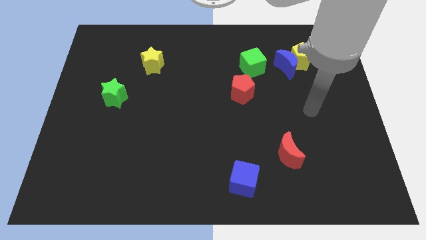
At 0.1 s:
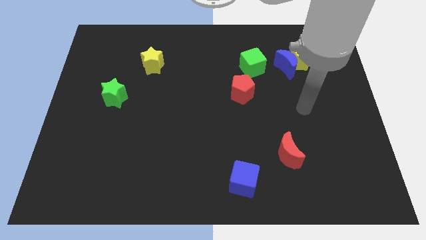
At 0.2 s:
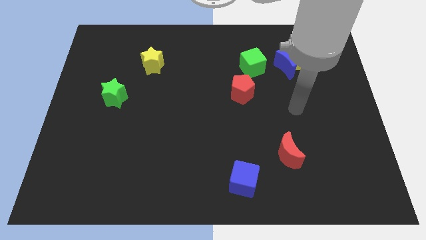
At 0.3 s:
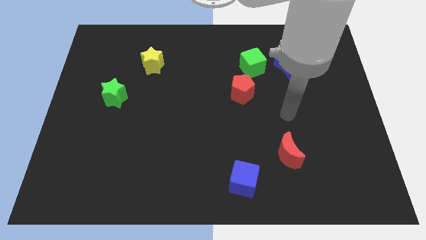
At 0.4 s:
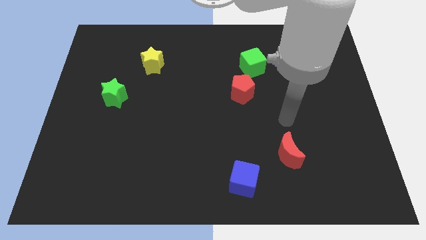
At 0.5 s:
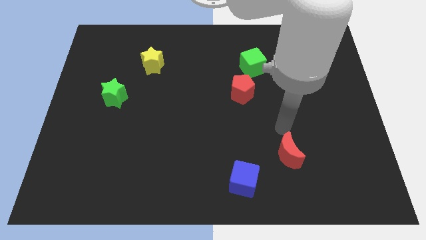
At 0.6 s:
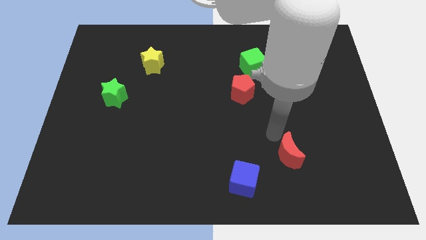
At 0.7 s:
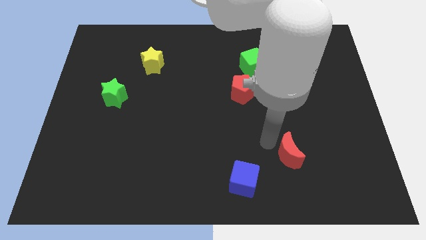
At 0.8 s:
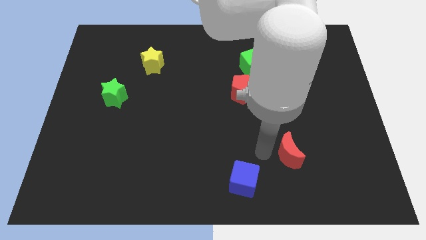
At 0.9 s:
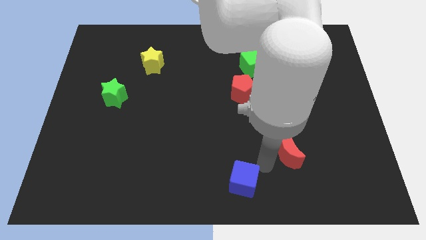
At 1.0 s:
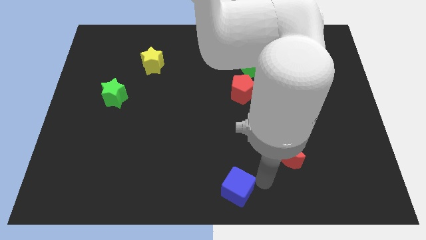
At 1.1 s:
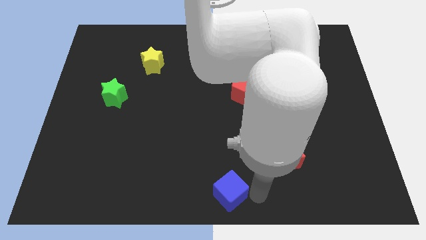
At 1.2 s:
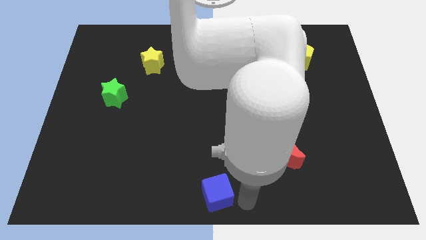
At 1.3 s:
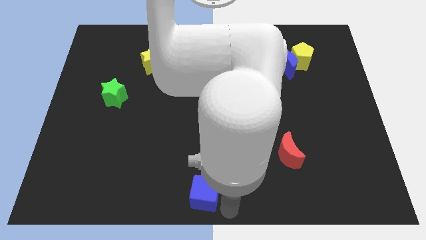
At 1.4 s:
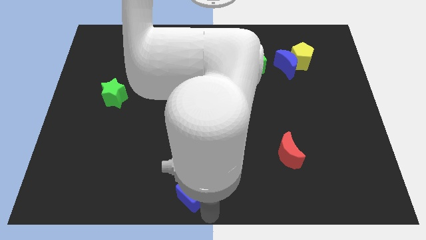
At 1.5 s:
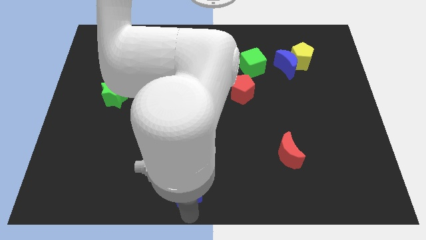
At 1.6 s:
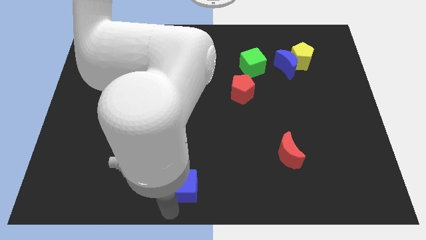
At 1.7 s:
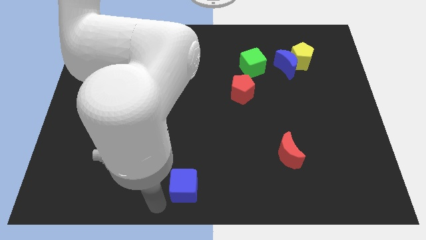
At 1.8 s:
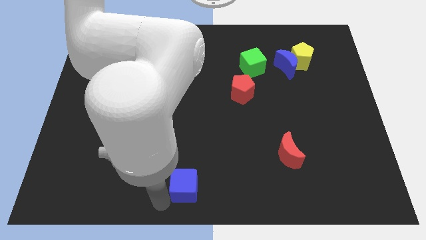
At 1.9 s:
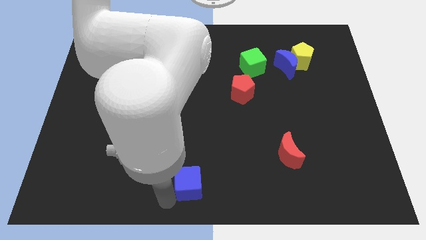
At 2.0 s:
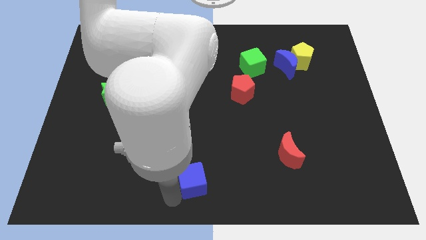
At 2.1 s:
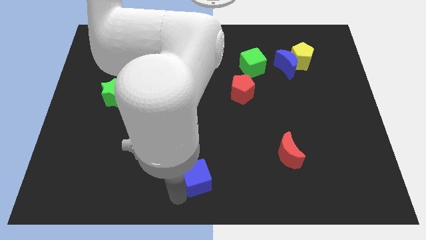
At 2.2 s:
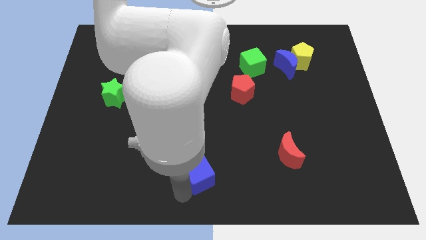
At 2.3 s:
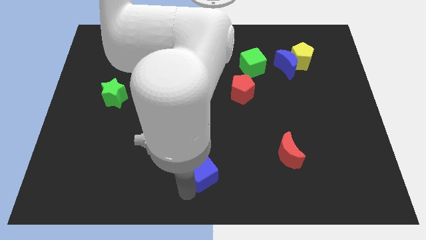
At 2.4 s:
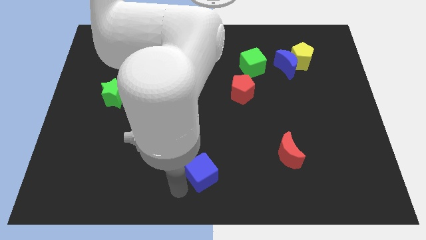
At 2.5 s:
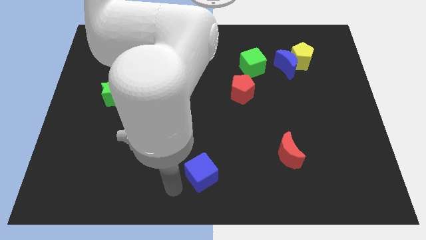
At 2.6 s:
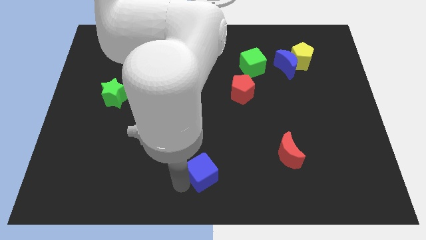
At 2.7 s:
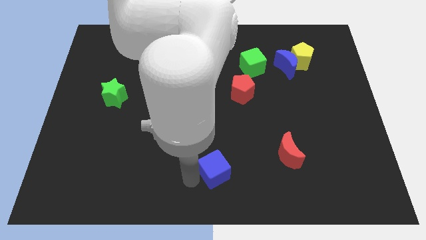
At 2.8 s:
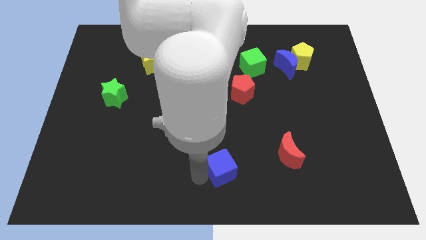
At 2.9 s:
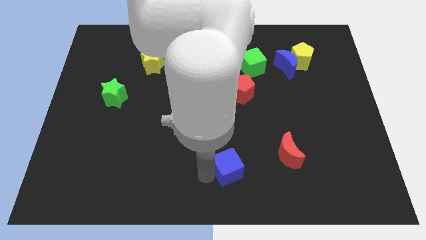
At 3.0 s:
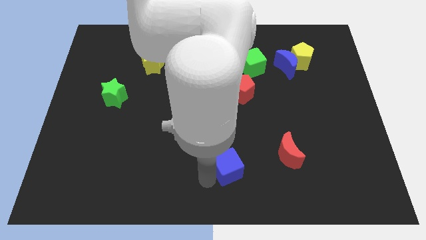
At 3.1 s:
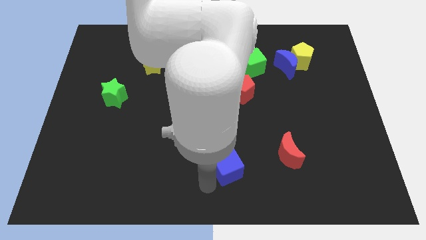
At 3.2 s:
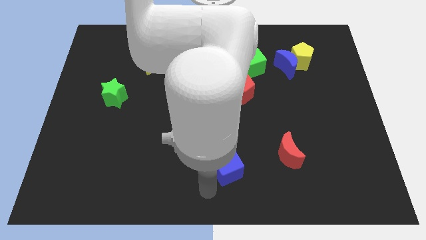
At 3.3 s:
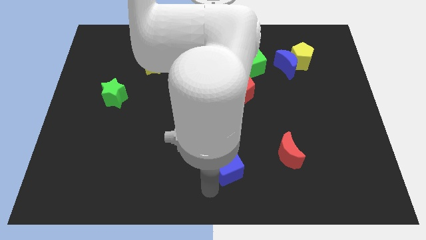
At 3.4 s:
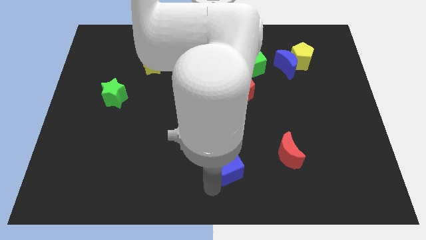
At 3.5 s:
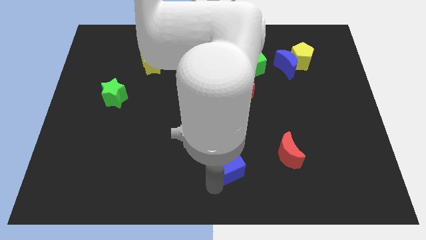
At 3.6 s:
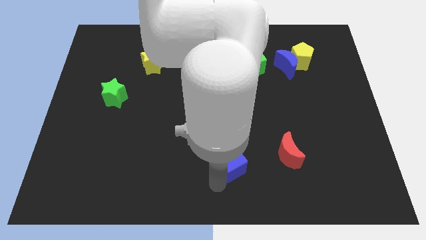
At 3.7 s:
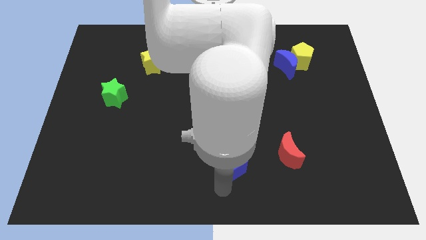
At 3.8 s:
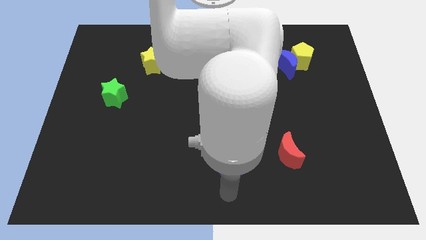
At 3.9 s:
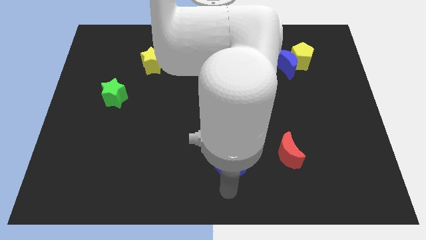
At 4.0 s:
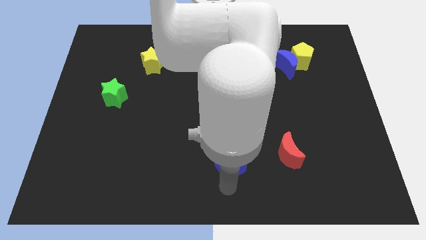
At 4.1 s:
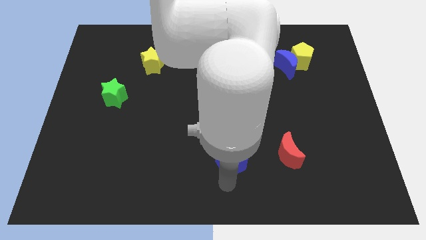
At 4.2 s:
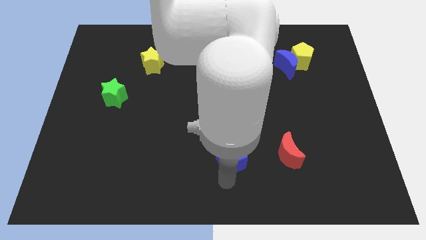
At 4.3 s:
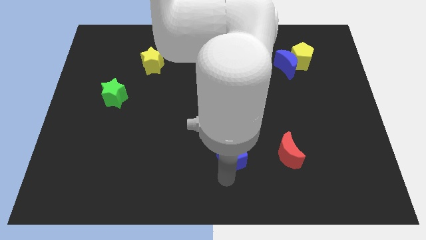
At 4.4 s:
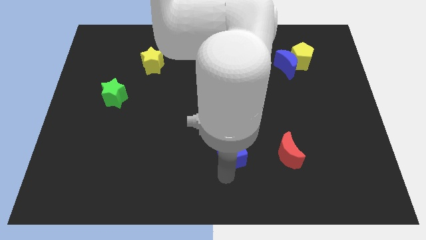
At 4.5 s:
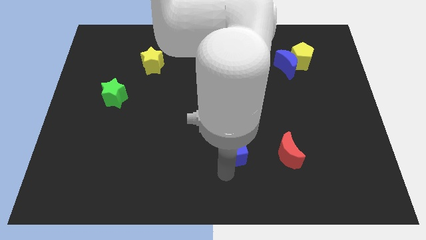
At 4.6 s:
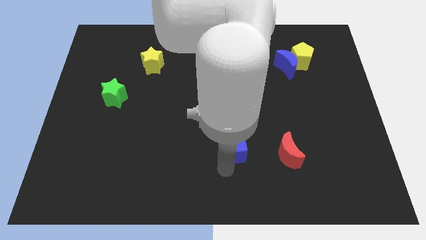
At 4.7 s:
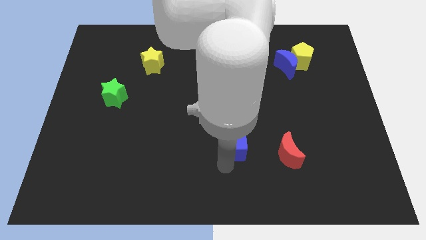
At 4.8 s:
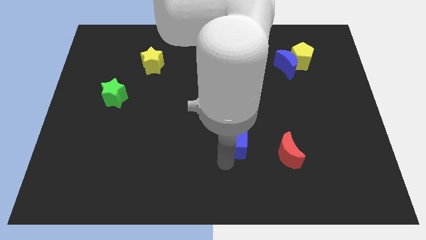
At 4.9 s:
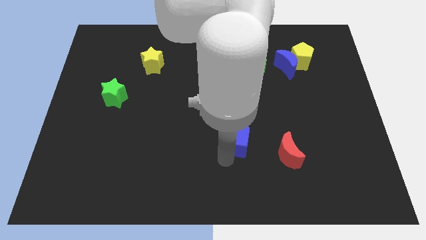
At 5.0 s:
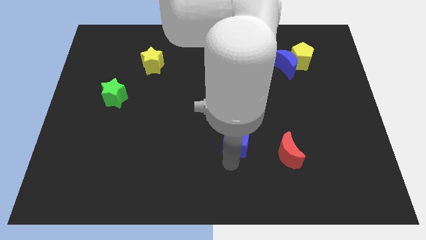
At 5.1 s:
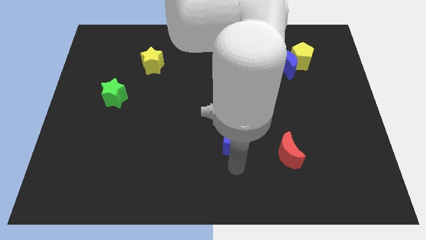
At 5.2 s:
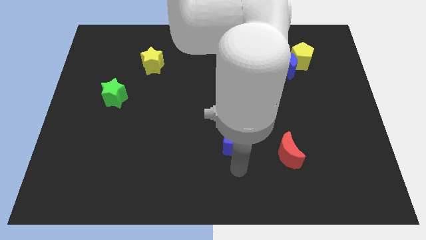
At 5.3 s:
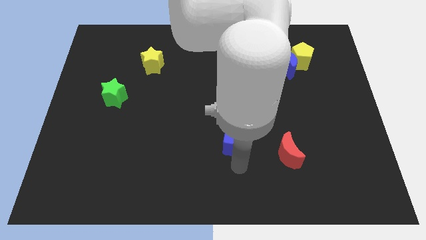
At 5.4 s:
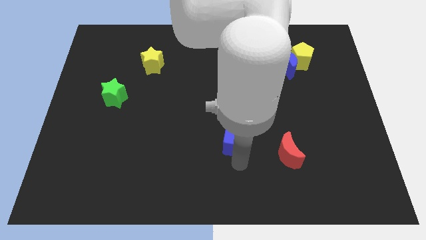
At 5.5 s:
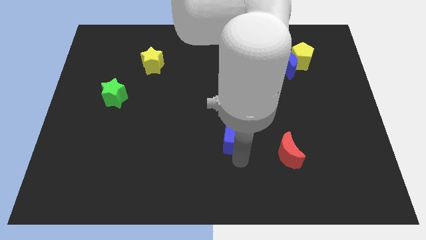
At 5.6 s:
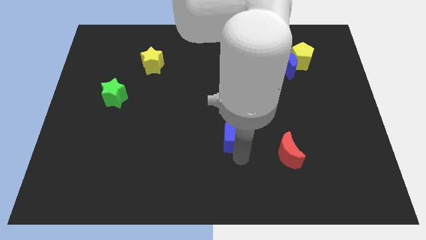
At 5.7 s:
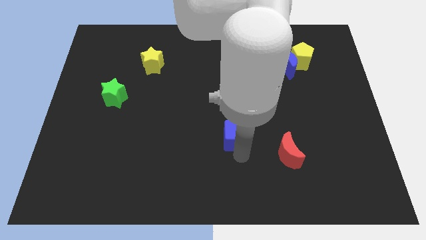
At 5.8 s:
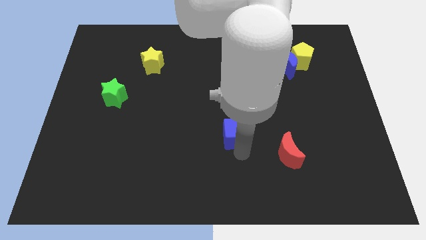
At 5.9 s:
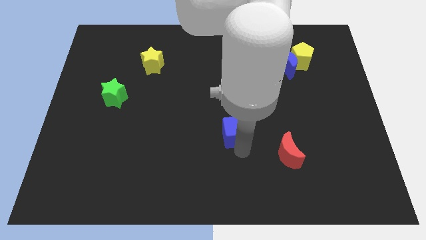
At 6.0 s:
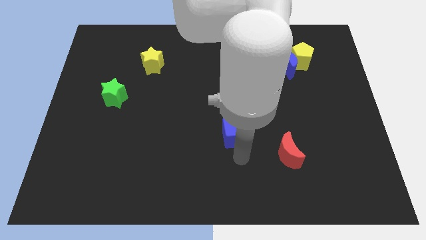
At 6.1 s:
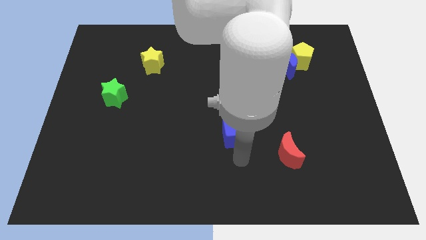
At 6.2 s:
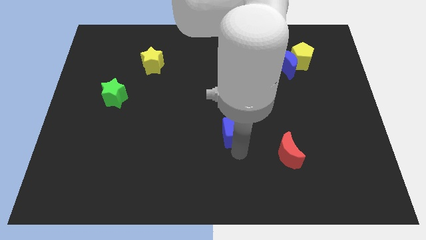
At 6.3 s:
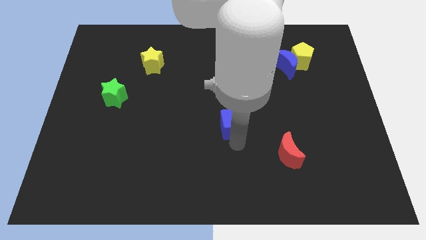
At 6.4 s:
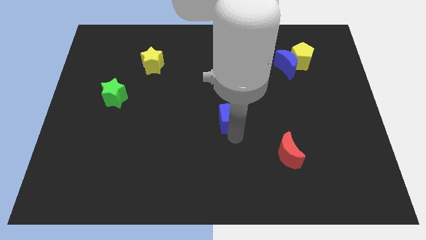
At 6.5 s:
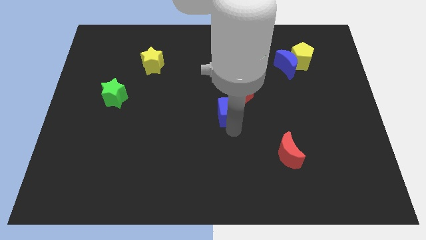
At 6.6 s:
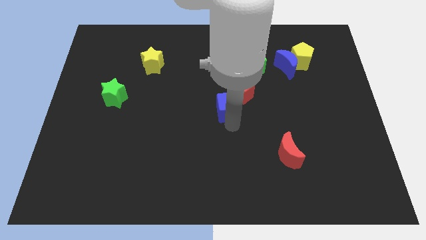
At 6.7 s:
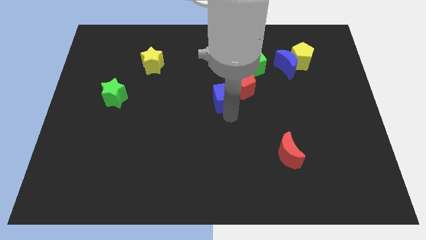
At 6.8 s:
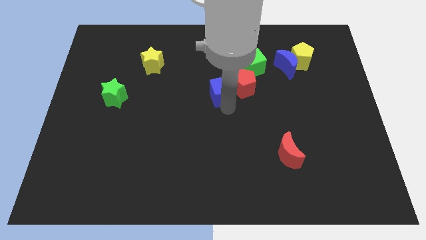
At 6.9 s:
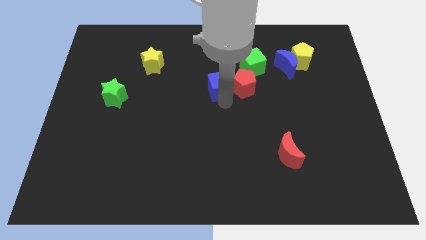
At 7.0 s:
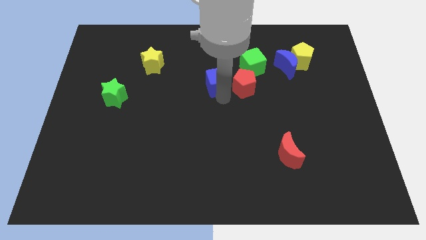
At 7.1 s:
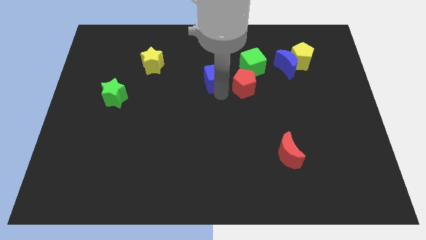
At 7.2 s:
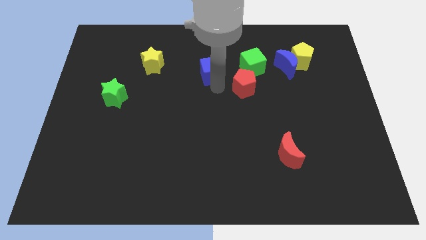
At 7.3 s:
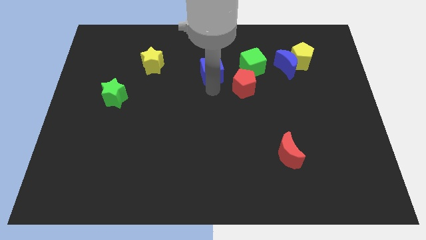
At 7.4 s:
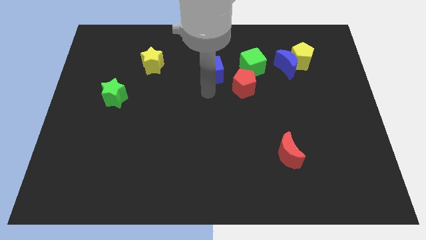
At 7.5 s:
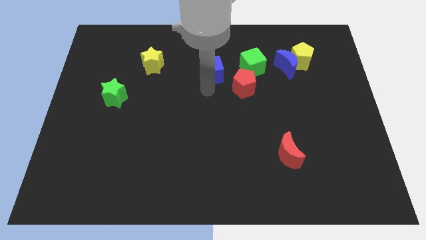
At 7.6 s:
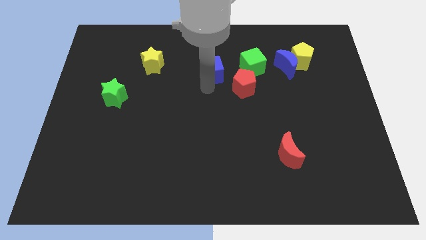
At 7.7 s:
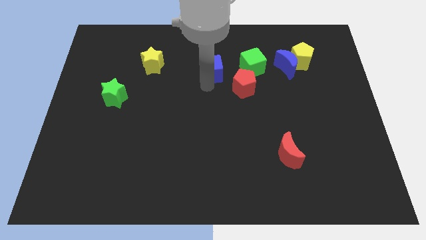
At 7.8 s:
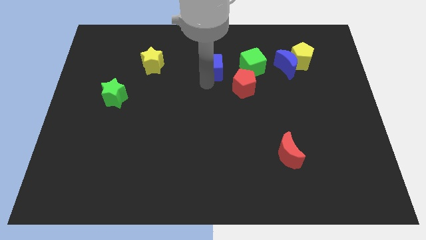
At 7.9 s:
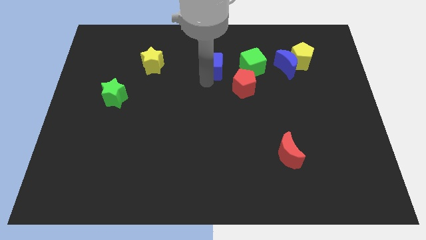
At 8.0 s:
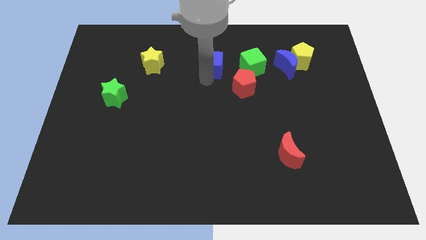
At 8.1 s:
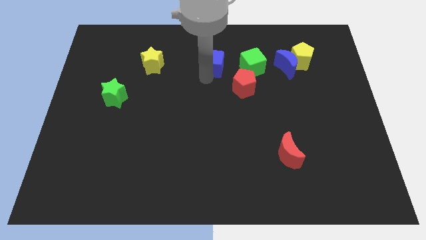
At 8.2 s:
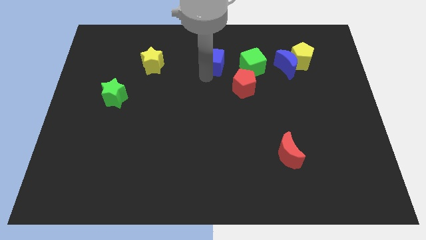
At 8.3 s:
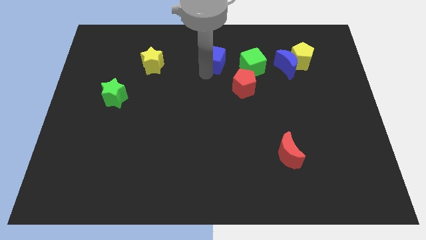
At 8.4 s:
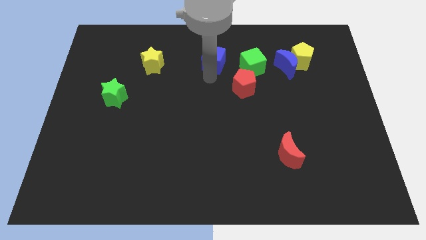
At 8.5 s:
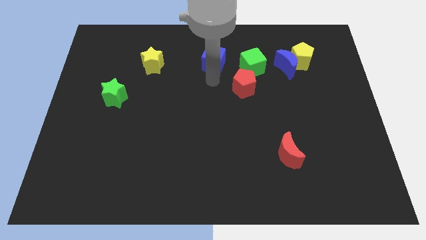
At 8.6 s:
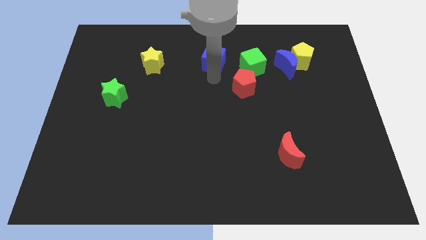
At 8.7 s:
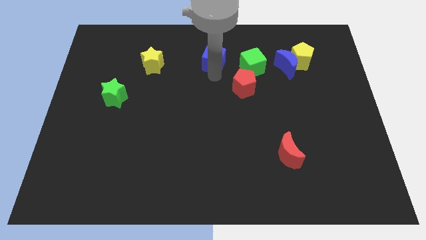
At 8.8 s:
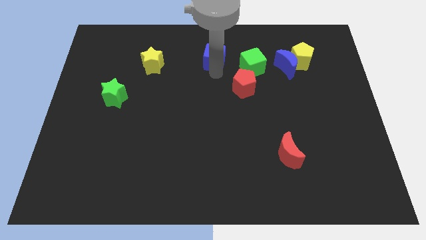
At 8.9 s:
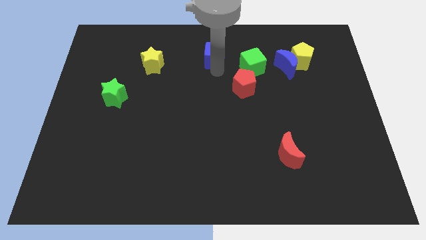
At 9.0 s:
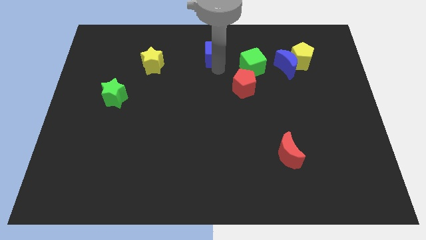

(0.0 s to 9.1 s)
push the blue cube to the top
